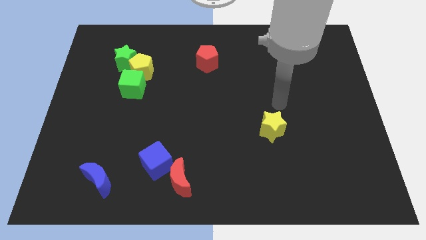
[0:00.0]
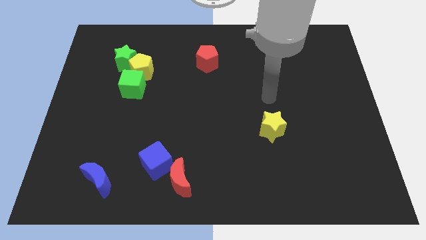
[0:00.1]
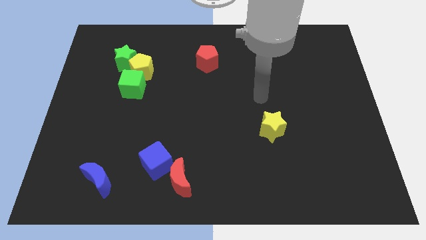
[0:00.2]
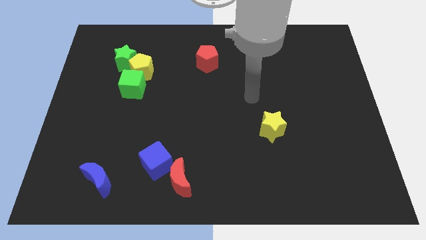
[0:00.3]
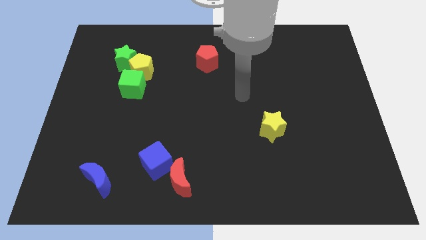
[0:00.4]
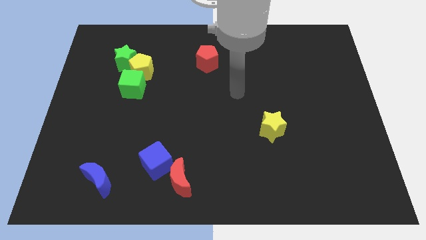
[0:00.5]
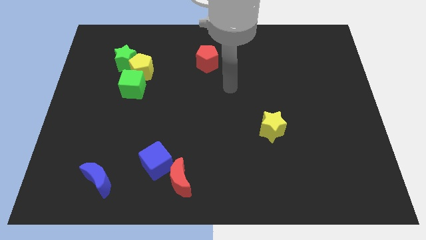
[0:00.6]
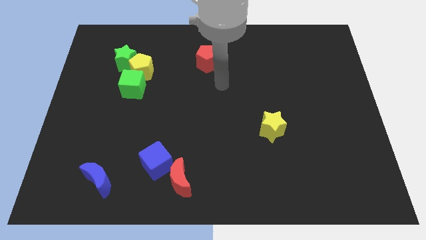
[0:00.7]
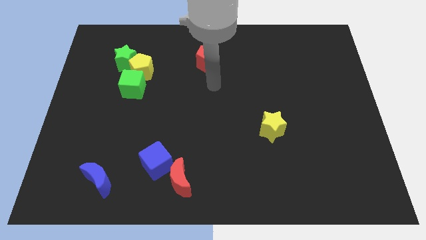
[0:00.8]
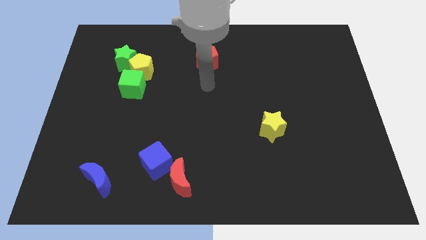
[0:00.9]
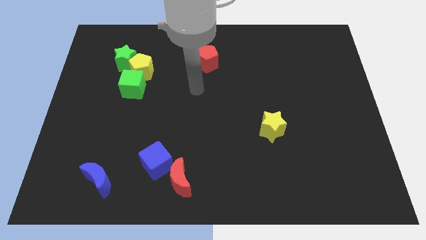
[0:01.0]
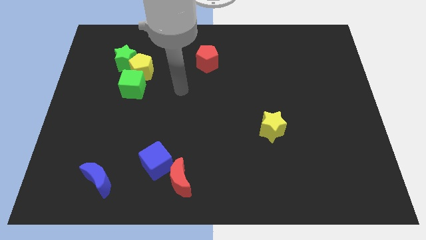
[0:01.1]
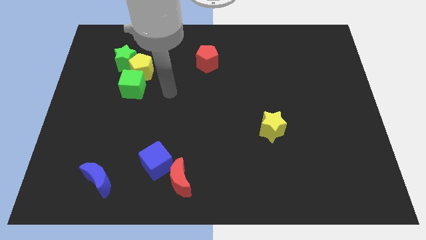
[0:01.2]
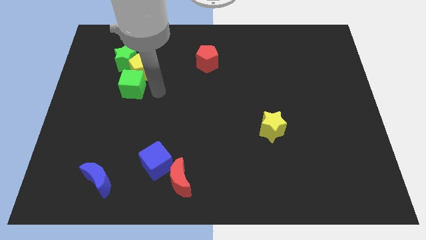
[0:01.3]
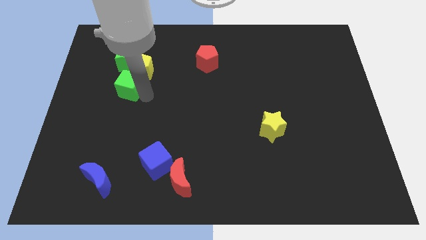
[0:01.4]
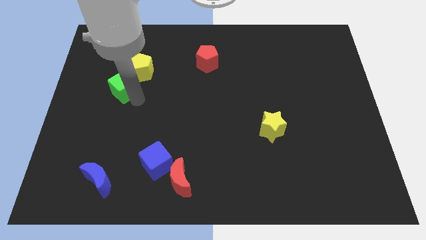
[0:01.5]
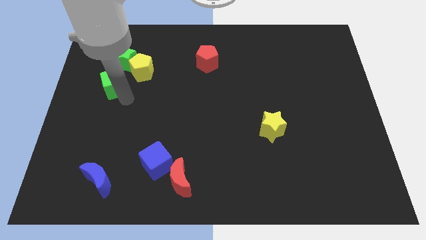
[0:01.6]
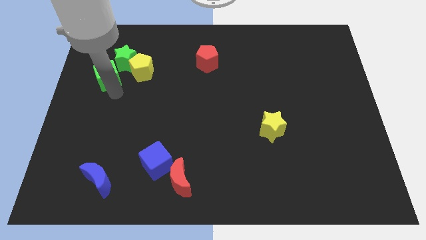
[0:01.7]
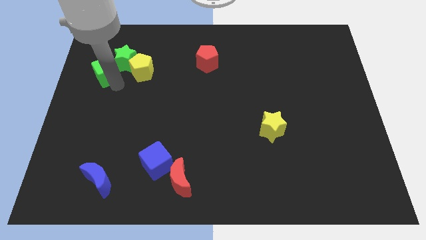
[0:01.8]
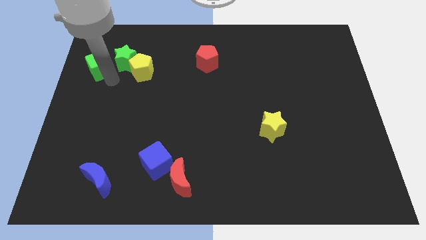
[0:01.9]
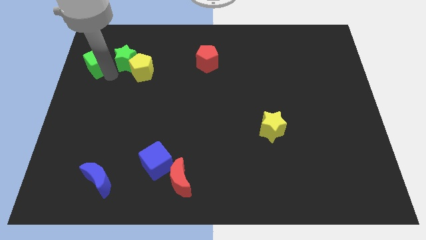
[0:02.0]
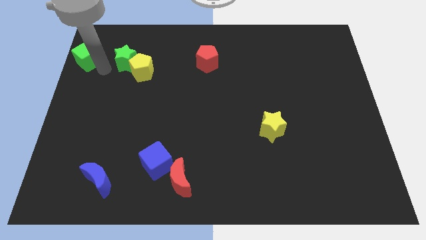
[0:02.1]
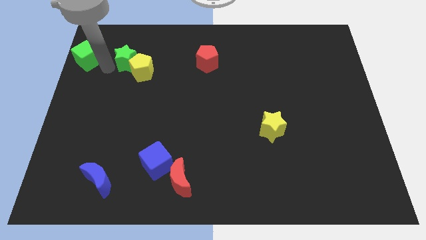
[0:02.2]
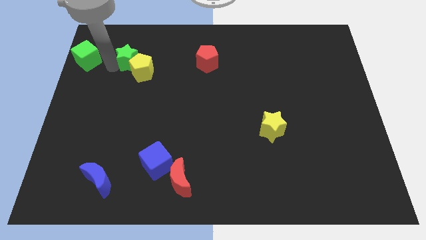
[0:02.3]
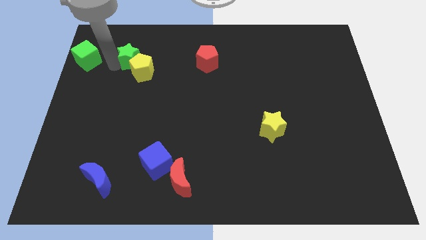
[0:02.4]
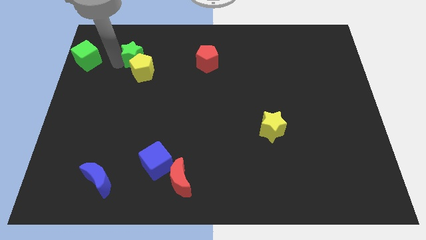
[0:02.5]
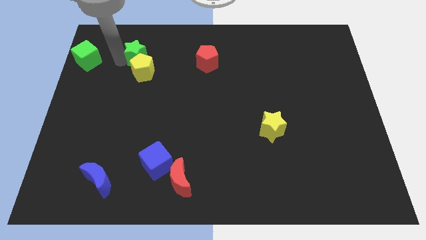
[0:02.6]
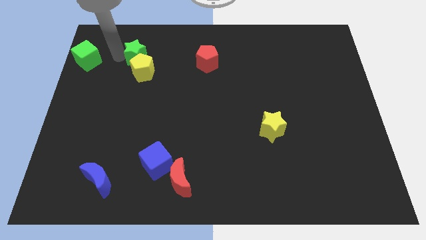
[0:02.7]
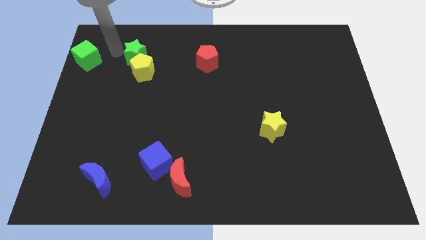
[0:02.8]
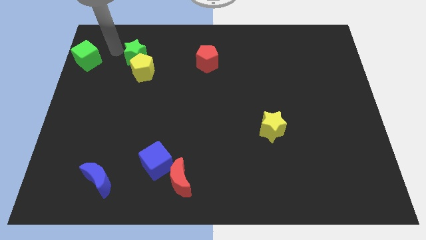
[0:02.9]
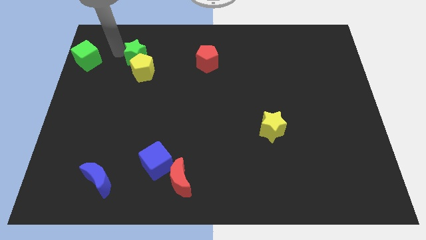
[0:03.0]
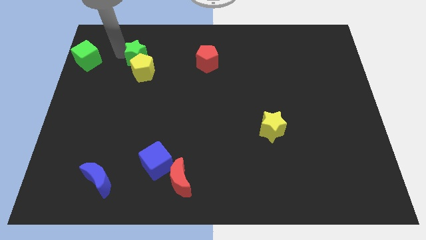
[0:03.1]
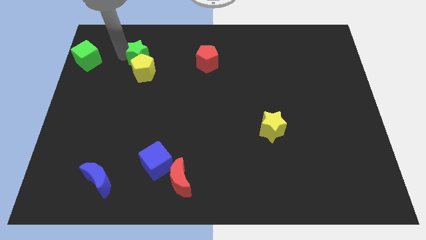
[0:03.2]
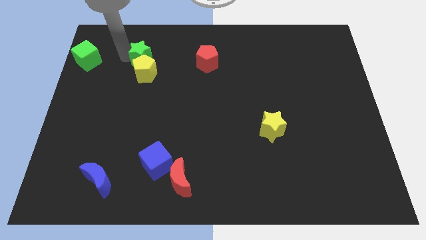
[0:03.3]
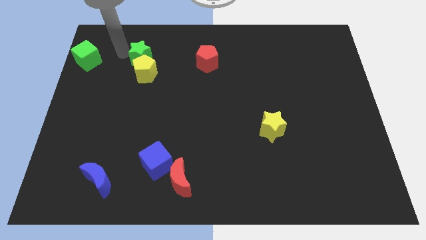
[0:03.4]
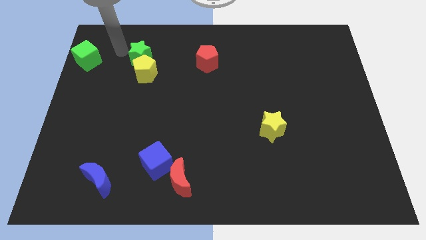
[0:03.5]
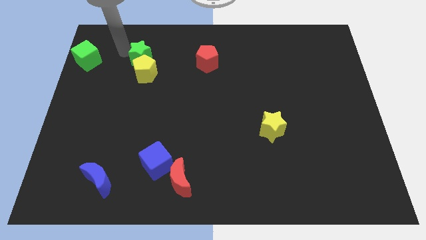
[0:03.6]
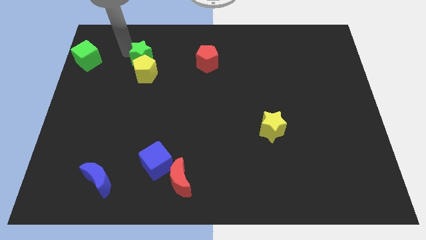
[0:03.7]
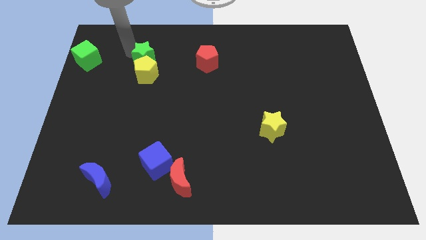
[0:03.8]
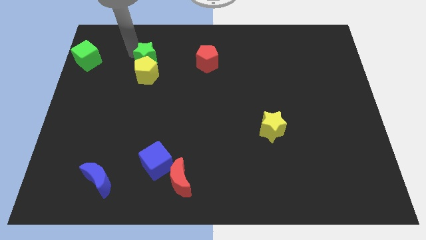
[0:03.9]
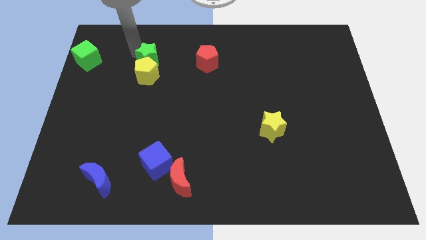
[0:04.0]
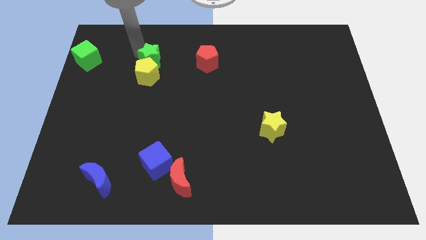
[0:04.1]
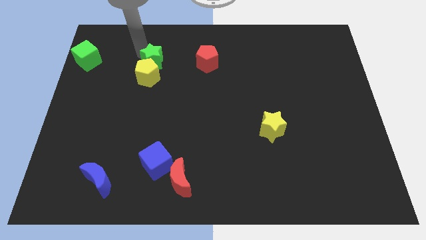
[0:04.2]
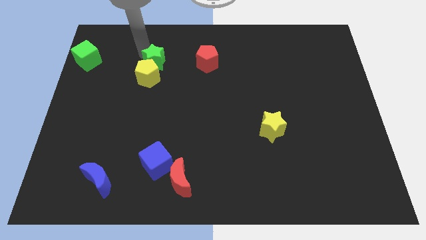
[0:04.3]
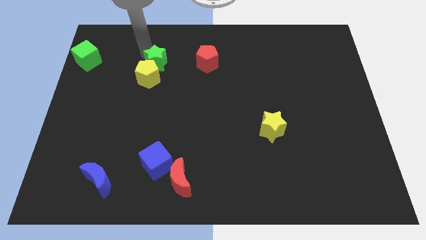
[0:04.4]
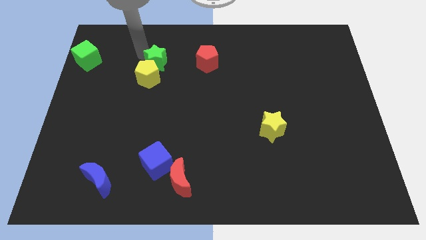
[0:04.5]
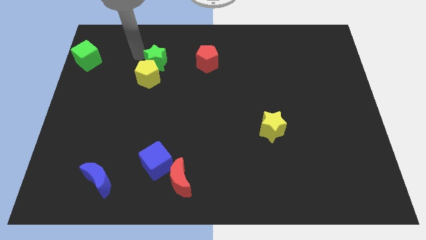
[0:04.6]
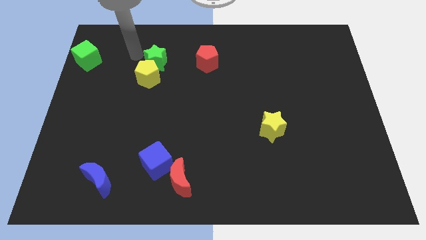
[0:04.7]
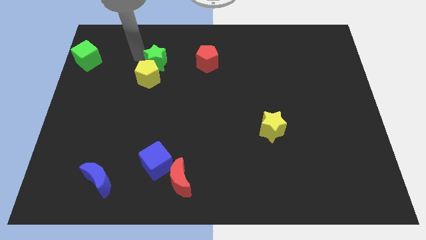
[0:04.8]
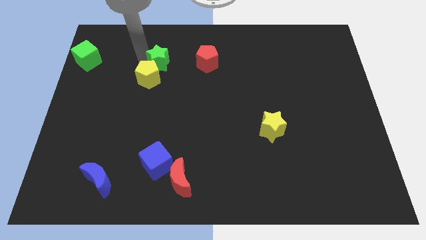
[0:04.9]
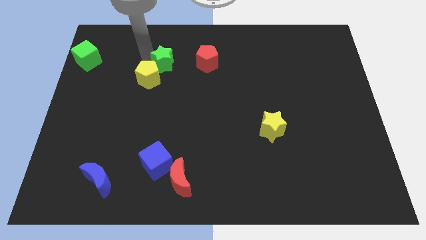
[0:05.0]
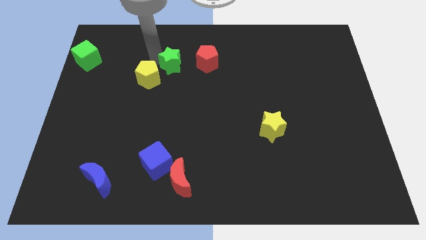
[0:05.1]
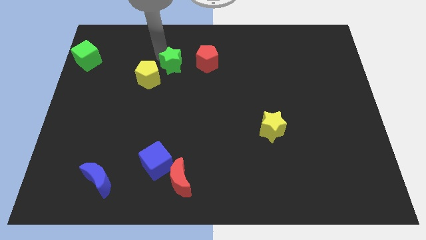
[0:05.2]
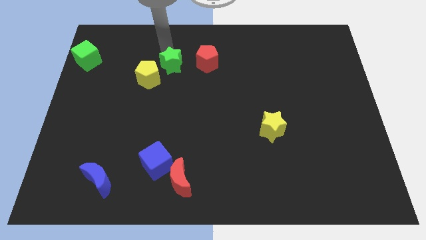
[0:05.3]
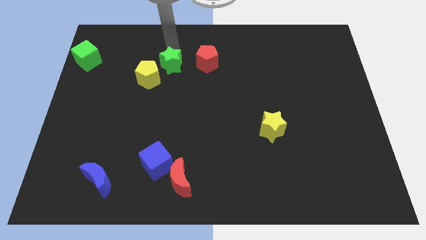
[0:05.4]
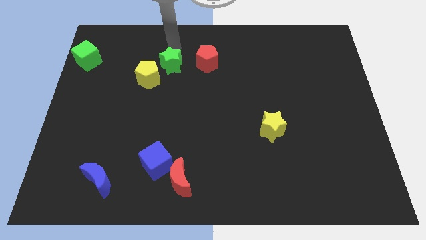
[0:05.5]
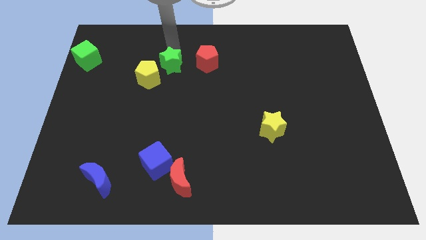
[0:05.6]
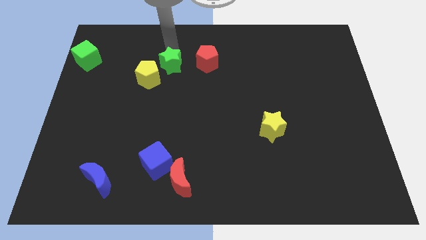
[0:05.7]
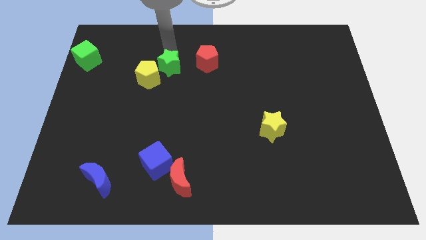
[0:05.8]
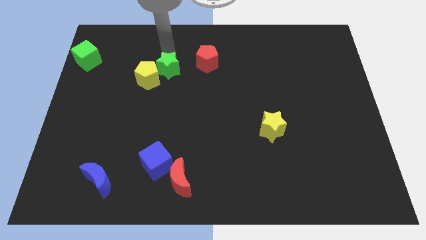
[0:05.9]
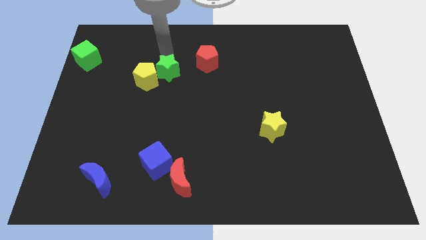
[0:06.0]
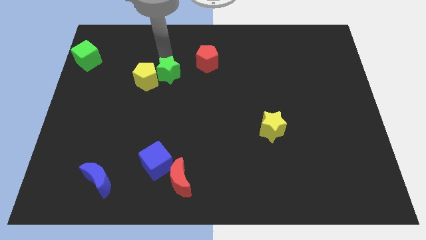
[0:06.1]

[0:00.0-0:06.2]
slide the green star diagonally down and to the right of the yellow pentagon

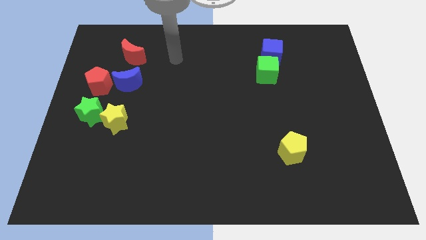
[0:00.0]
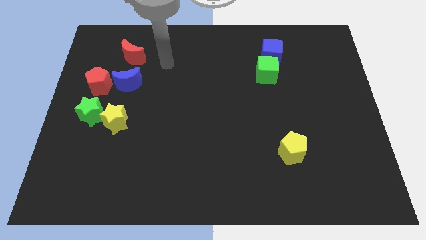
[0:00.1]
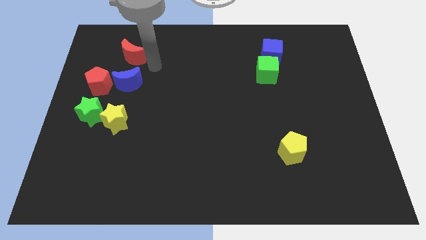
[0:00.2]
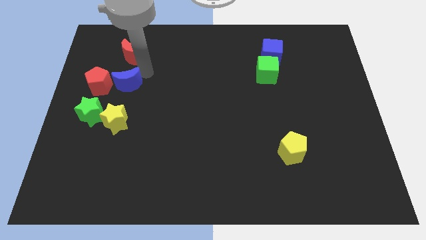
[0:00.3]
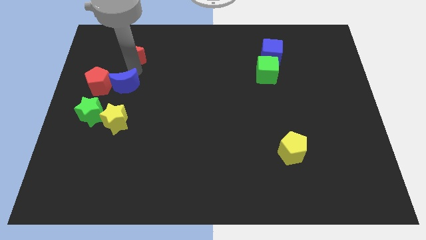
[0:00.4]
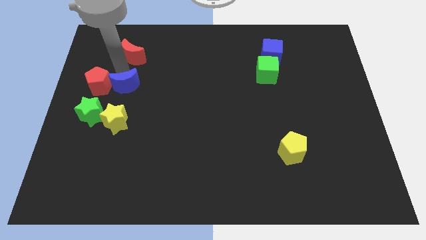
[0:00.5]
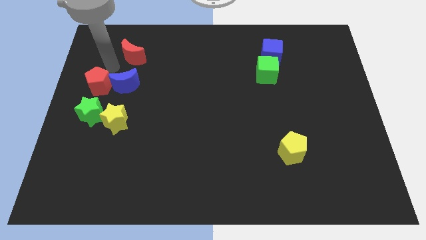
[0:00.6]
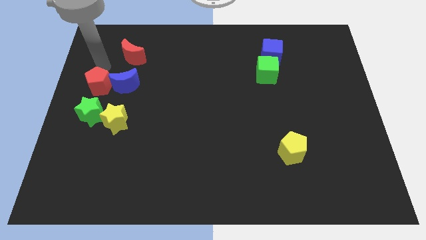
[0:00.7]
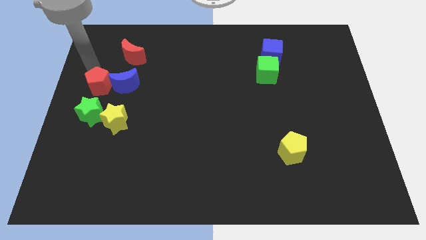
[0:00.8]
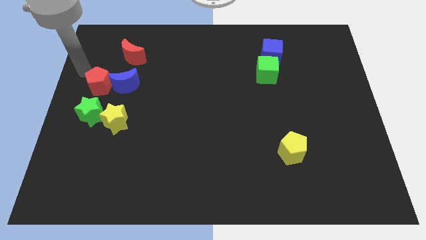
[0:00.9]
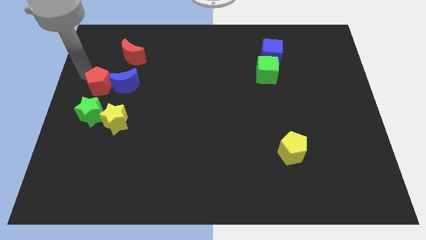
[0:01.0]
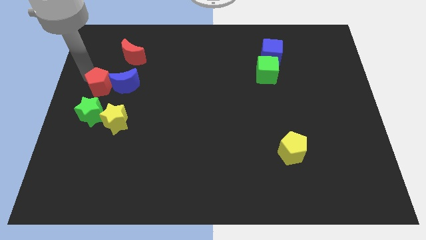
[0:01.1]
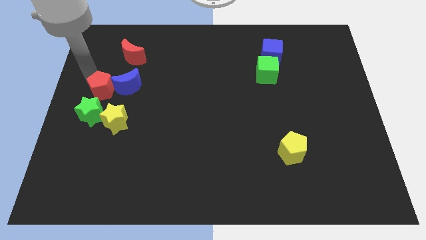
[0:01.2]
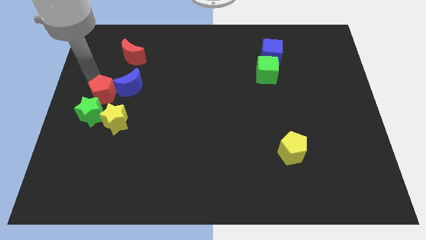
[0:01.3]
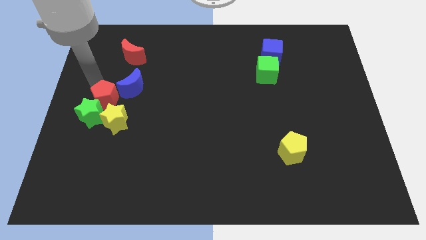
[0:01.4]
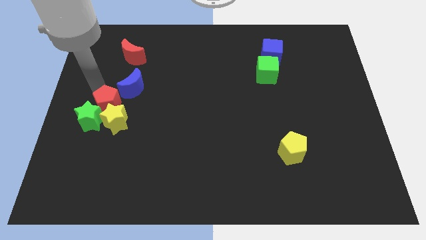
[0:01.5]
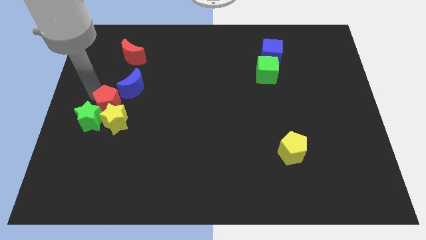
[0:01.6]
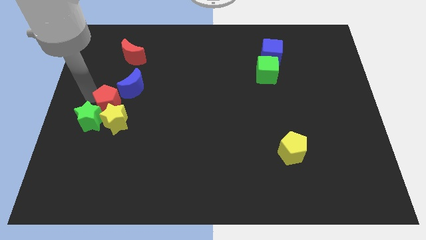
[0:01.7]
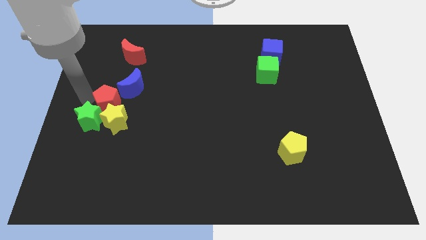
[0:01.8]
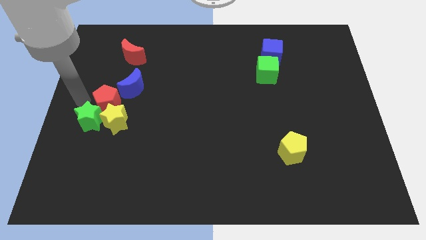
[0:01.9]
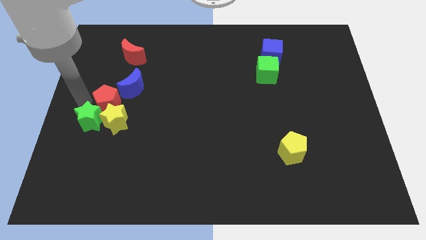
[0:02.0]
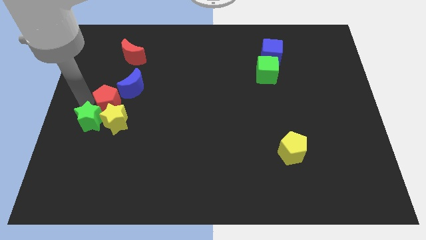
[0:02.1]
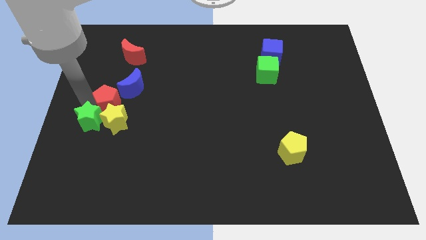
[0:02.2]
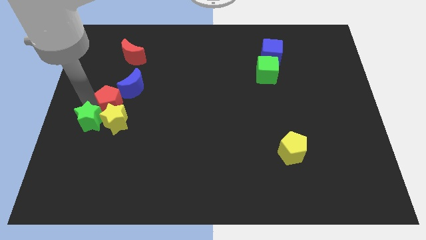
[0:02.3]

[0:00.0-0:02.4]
slide the red pentagon to the bottom side of the blue moon
